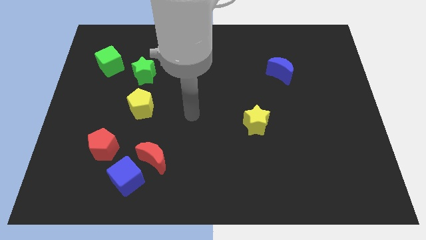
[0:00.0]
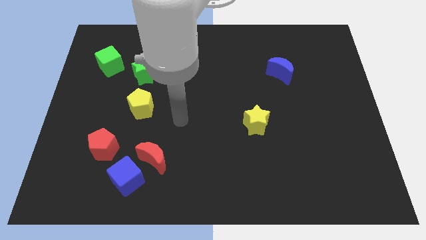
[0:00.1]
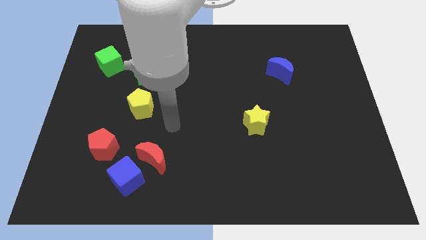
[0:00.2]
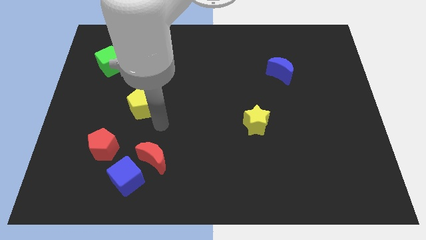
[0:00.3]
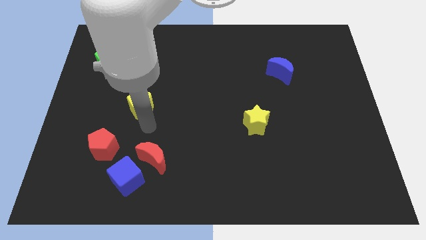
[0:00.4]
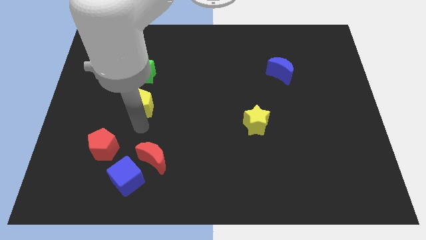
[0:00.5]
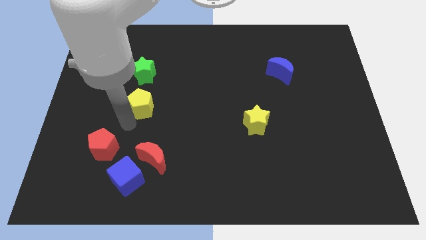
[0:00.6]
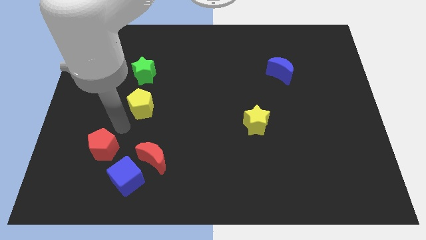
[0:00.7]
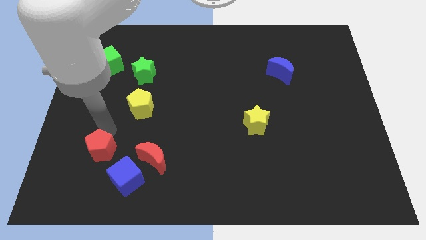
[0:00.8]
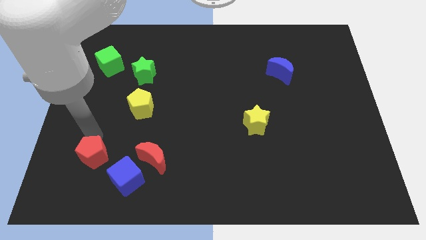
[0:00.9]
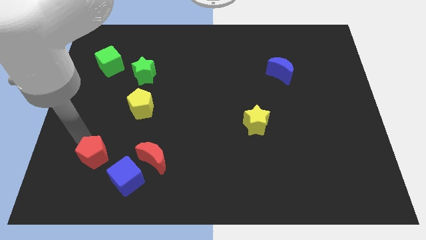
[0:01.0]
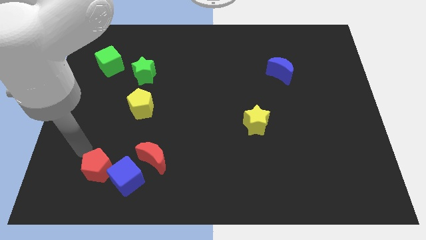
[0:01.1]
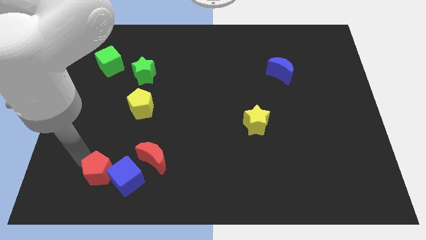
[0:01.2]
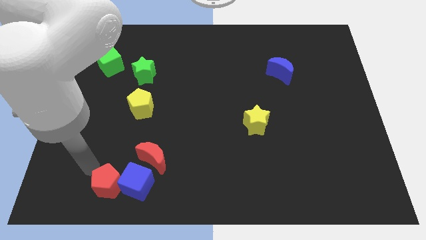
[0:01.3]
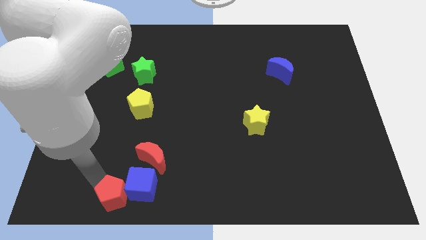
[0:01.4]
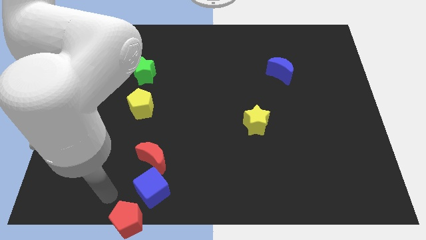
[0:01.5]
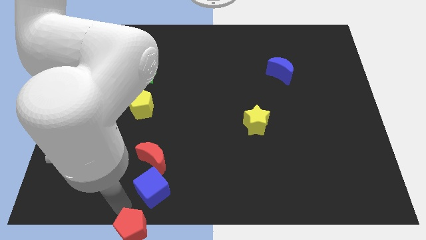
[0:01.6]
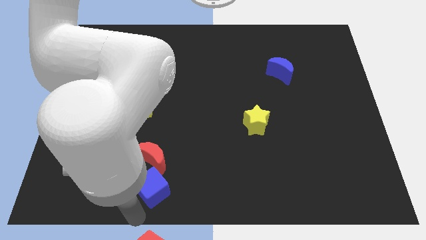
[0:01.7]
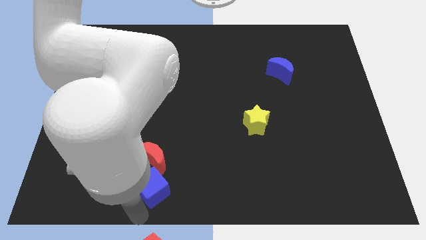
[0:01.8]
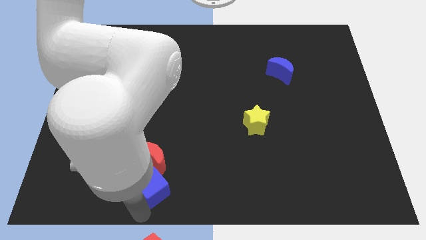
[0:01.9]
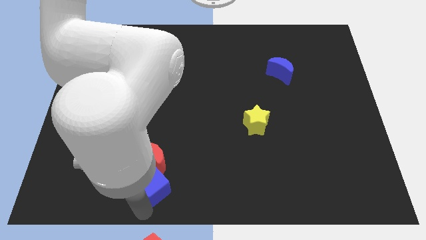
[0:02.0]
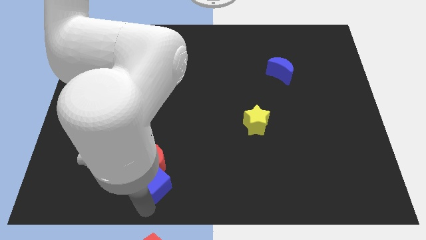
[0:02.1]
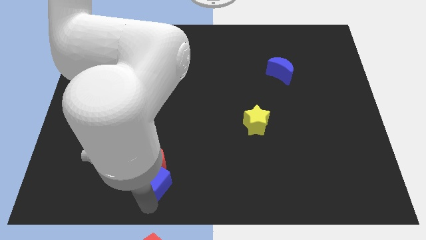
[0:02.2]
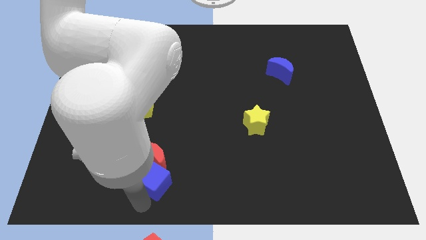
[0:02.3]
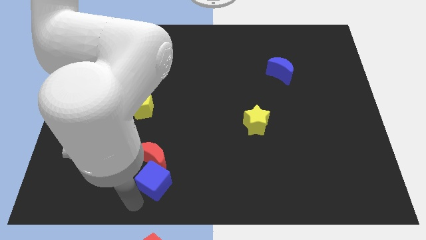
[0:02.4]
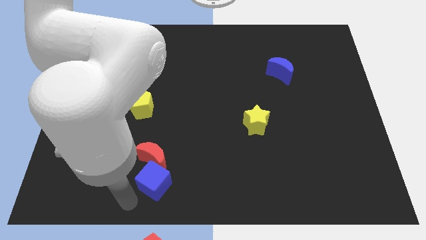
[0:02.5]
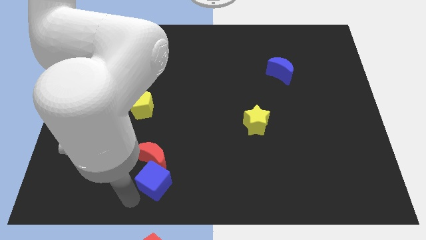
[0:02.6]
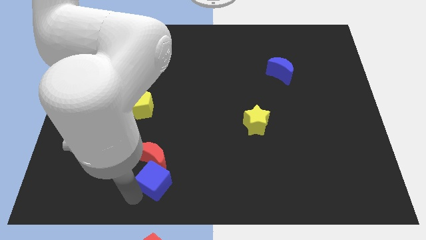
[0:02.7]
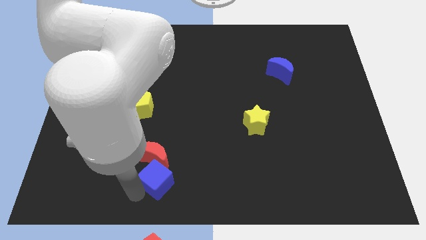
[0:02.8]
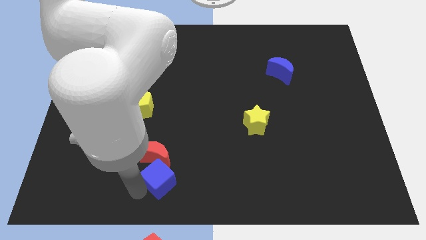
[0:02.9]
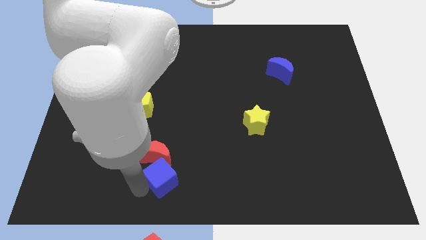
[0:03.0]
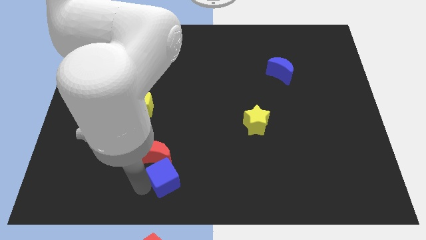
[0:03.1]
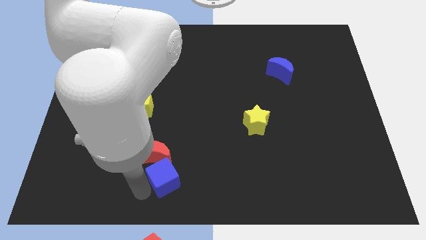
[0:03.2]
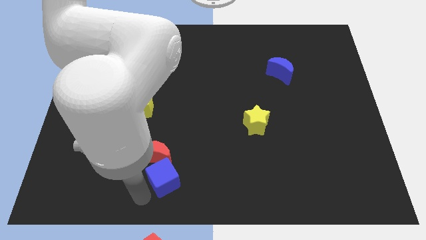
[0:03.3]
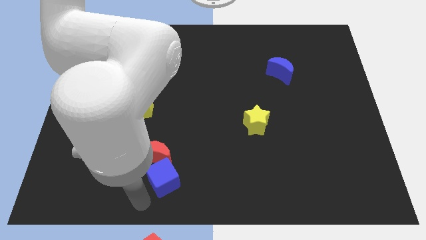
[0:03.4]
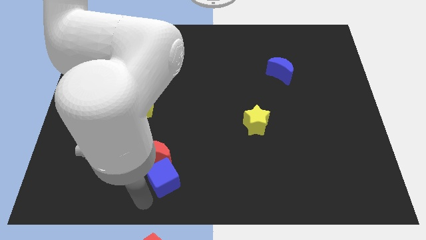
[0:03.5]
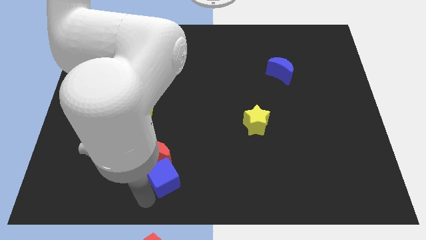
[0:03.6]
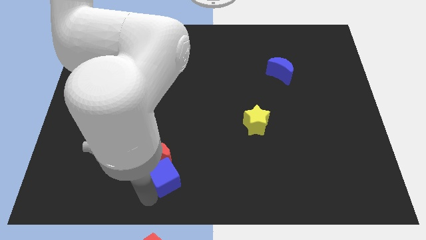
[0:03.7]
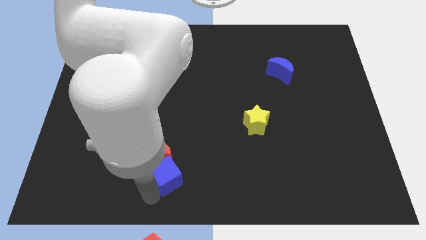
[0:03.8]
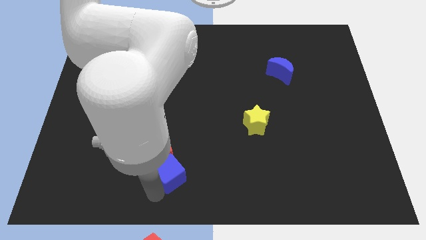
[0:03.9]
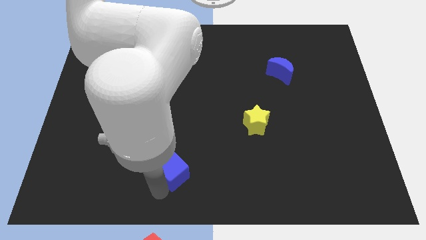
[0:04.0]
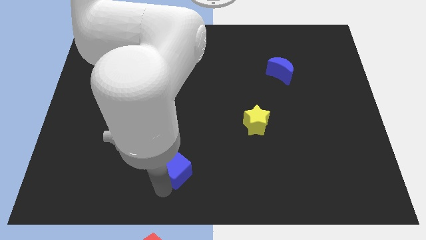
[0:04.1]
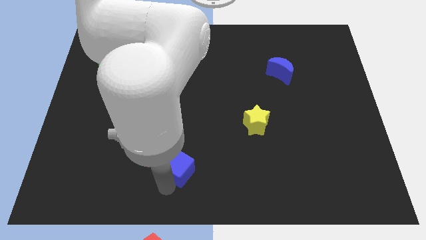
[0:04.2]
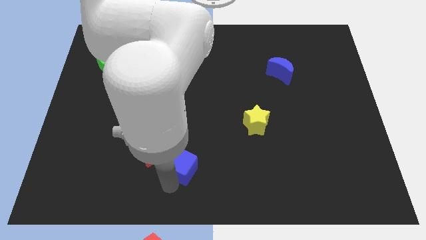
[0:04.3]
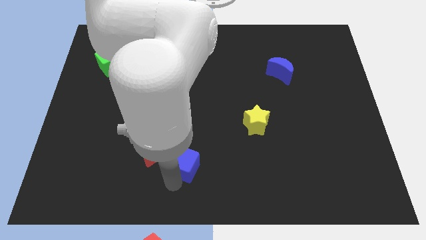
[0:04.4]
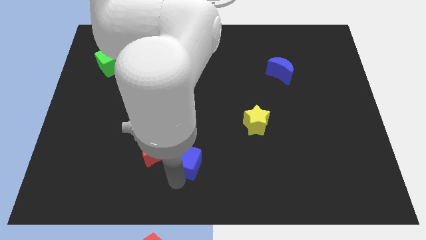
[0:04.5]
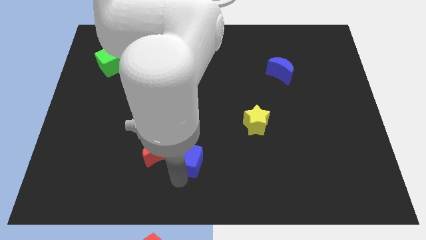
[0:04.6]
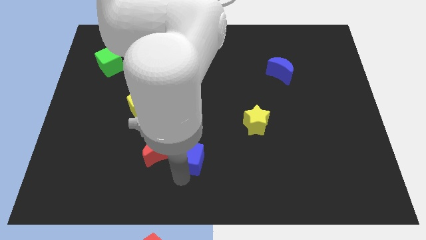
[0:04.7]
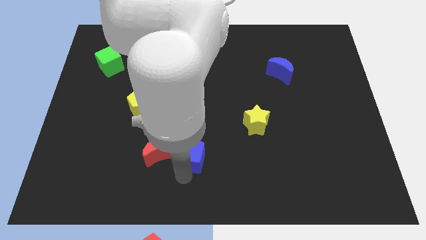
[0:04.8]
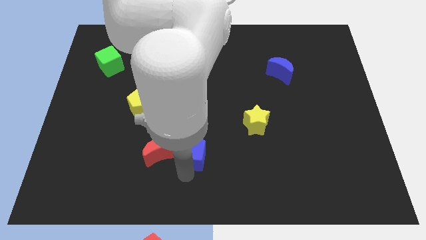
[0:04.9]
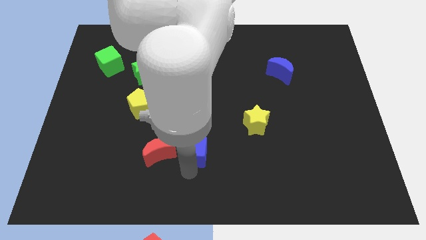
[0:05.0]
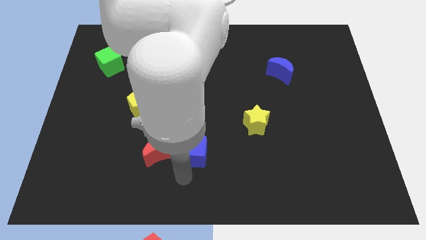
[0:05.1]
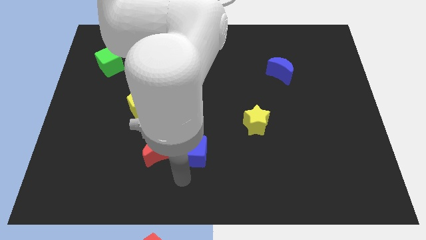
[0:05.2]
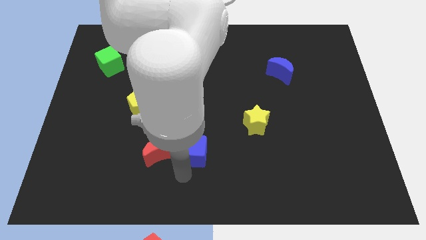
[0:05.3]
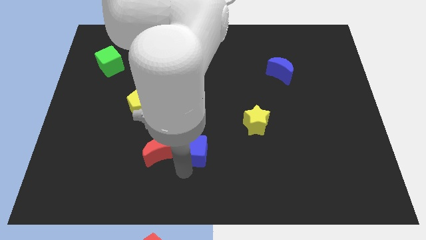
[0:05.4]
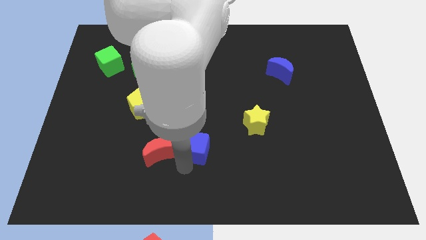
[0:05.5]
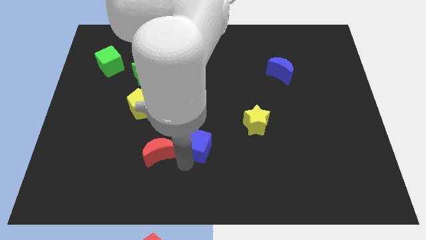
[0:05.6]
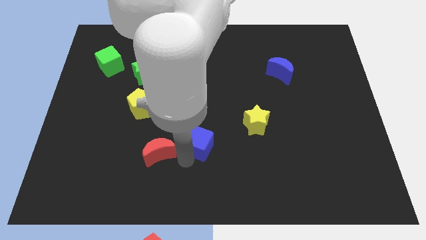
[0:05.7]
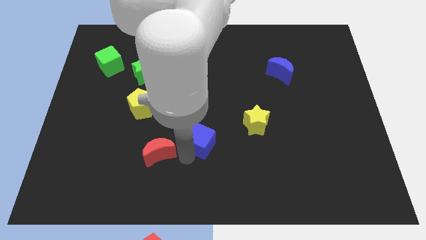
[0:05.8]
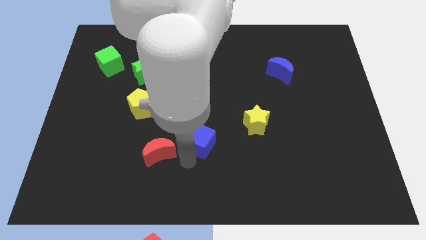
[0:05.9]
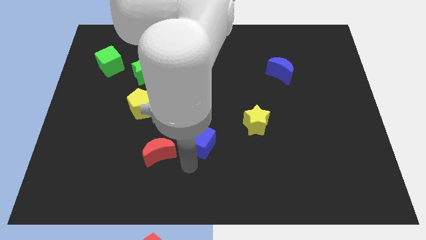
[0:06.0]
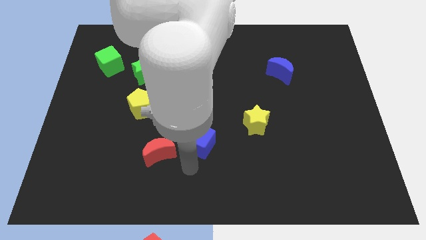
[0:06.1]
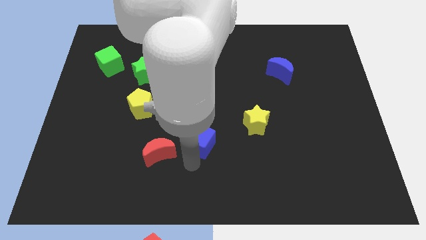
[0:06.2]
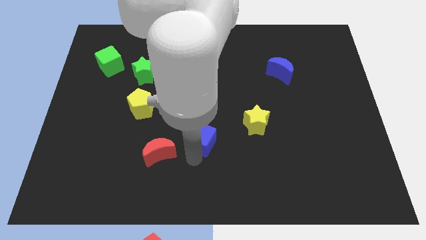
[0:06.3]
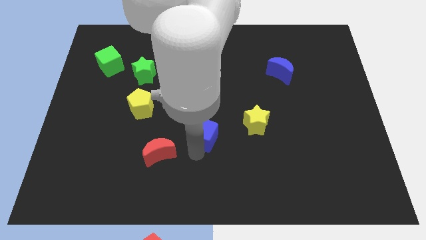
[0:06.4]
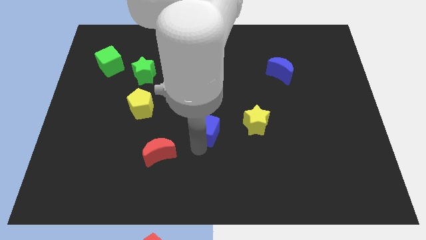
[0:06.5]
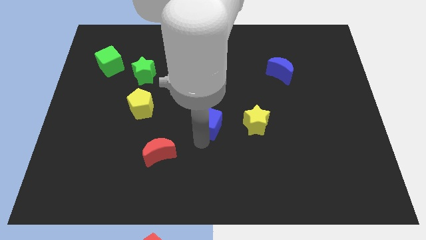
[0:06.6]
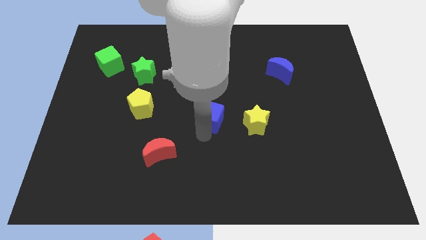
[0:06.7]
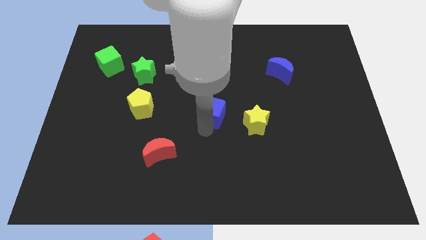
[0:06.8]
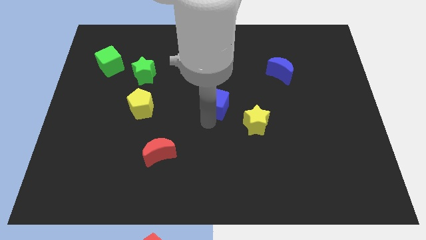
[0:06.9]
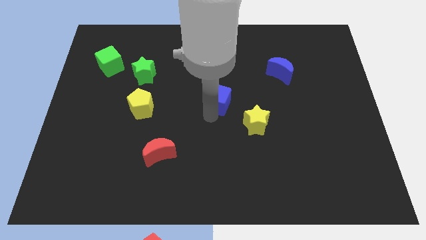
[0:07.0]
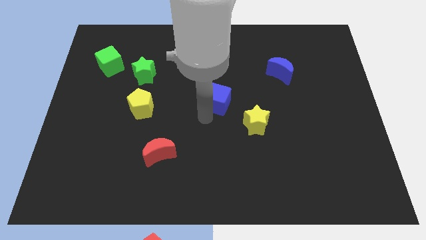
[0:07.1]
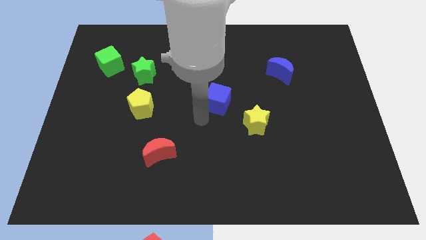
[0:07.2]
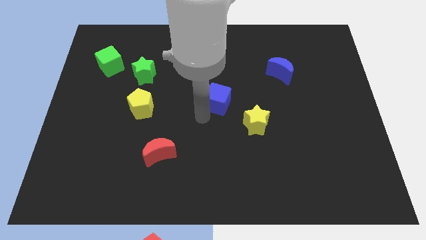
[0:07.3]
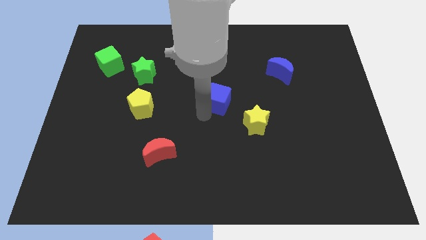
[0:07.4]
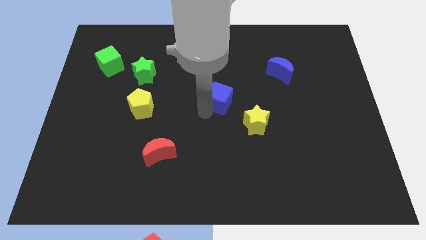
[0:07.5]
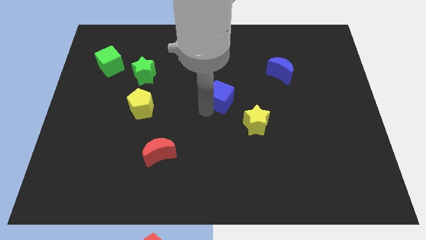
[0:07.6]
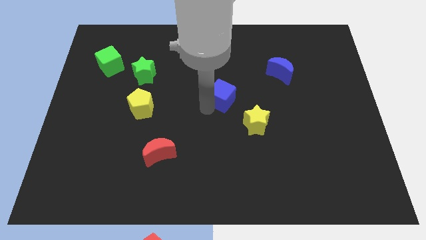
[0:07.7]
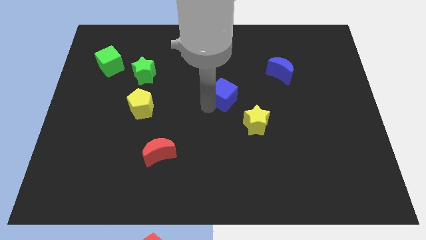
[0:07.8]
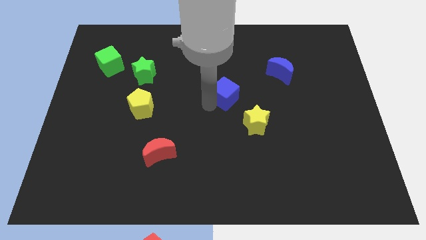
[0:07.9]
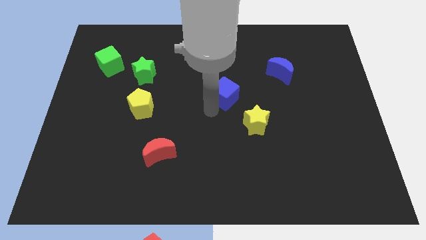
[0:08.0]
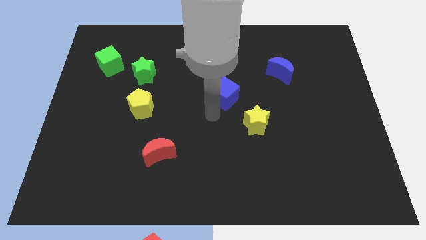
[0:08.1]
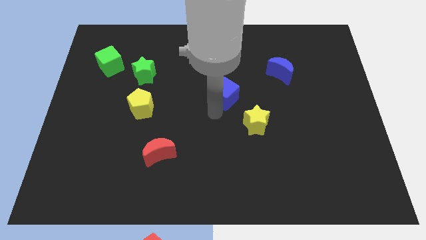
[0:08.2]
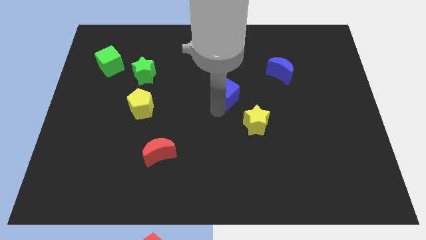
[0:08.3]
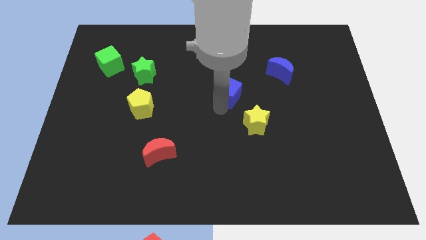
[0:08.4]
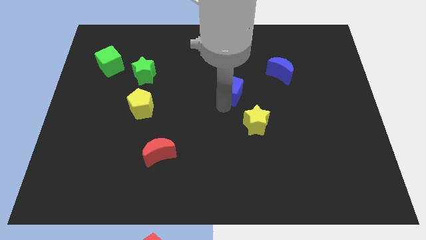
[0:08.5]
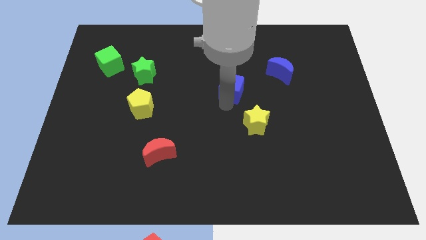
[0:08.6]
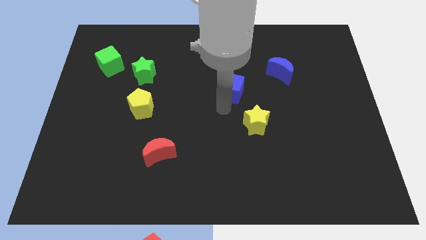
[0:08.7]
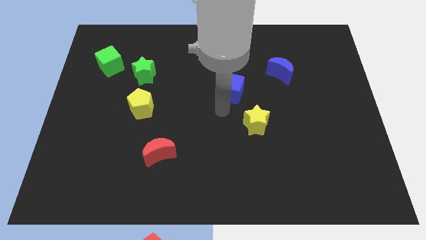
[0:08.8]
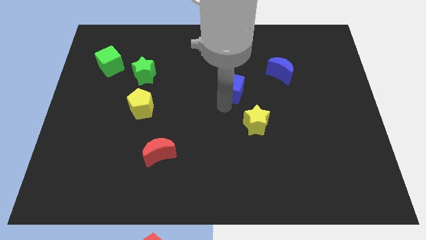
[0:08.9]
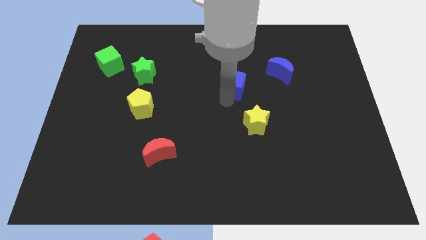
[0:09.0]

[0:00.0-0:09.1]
push the blue cube to the left side of the blue moon
